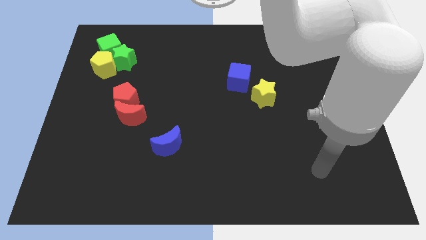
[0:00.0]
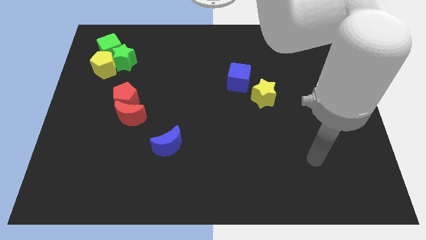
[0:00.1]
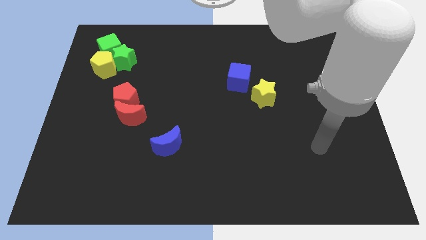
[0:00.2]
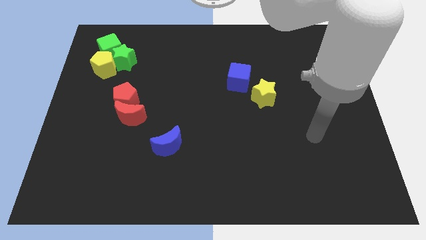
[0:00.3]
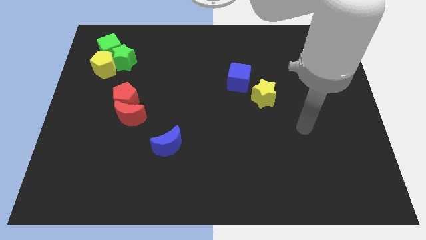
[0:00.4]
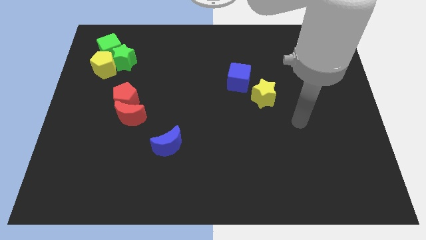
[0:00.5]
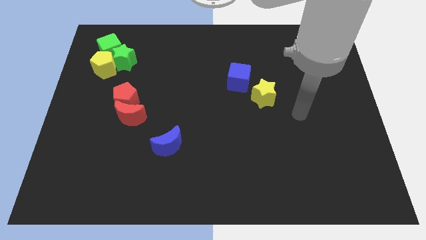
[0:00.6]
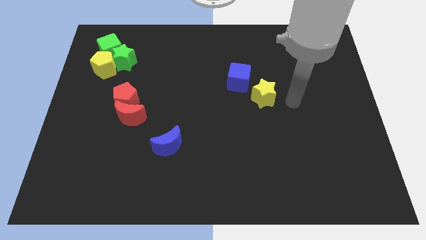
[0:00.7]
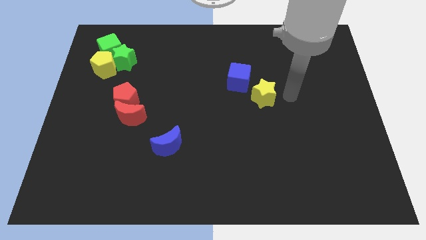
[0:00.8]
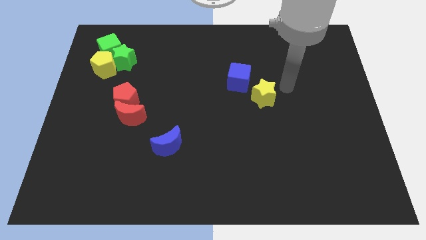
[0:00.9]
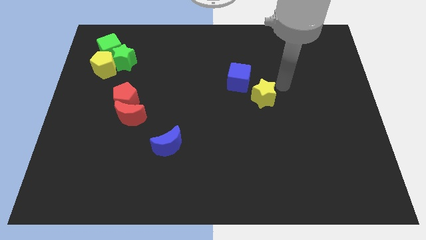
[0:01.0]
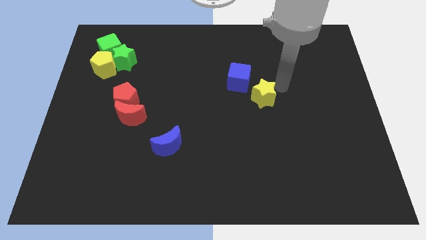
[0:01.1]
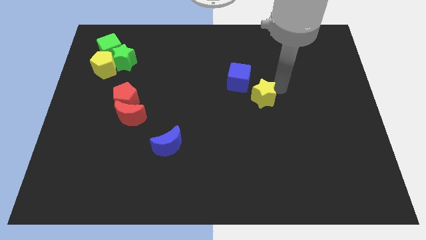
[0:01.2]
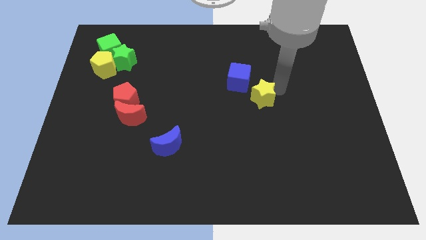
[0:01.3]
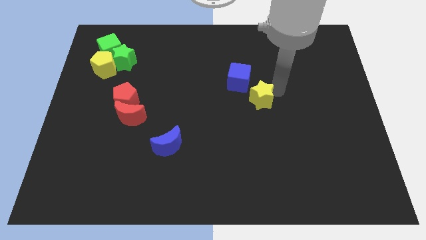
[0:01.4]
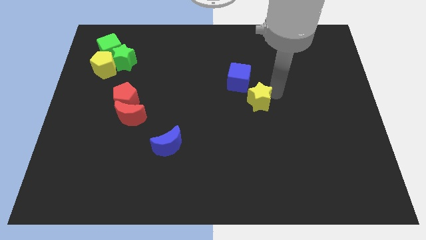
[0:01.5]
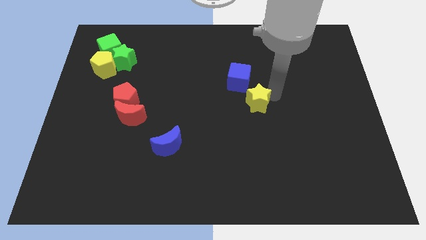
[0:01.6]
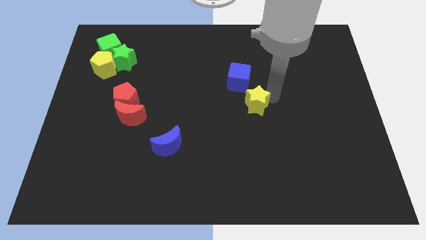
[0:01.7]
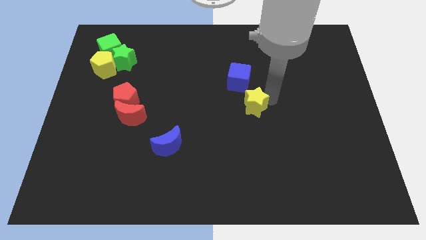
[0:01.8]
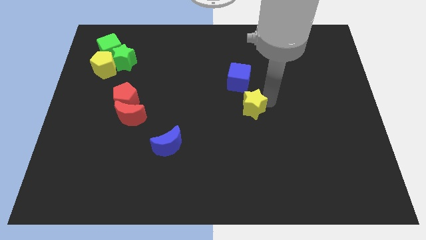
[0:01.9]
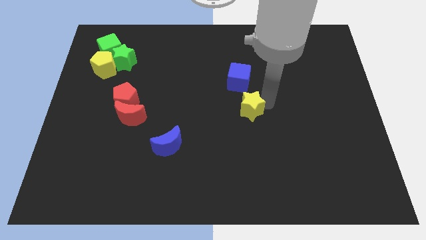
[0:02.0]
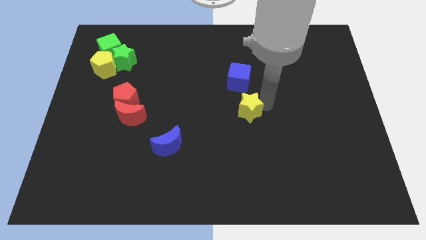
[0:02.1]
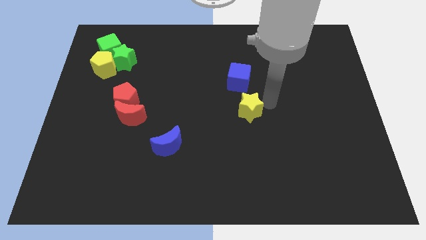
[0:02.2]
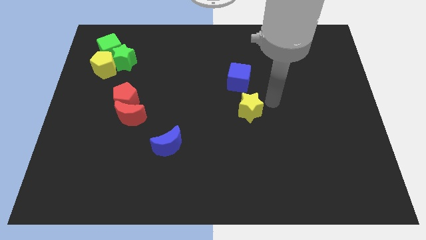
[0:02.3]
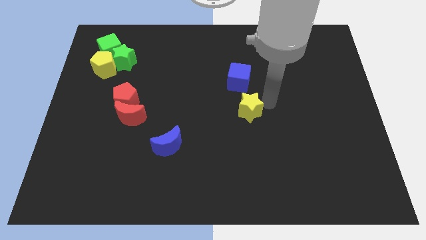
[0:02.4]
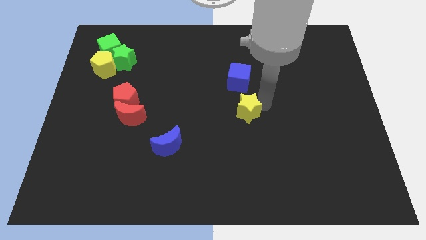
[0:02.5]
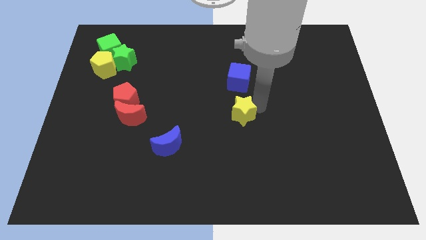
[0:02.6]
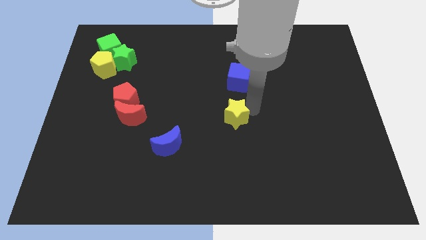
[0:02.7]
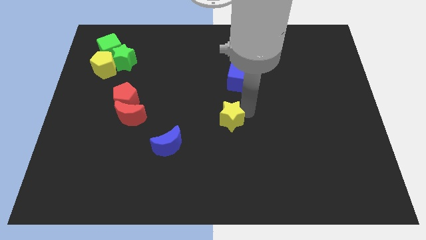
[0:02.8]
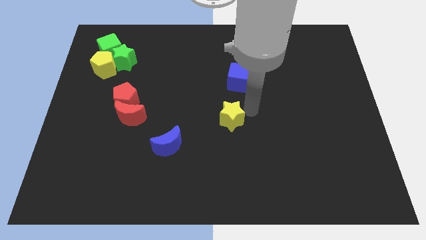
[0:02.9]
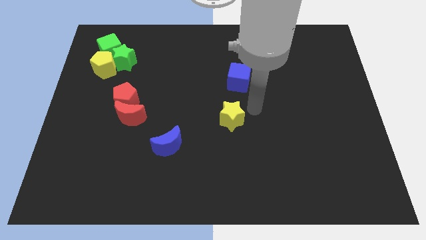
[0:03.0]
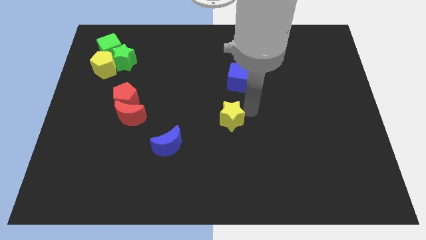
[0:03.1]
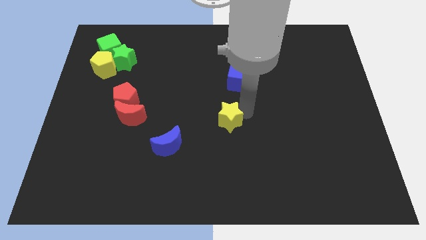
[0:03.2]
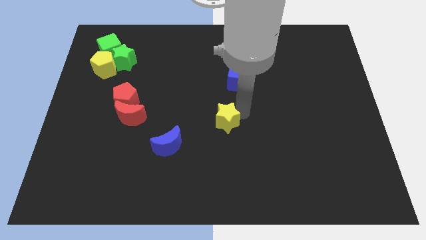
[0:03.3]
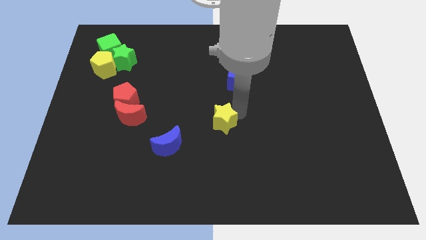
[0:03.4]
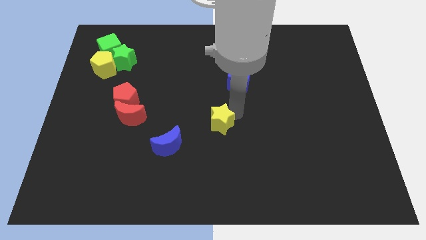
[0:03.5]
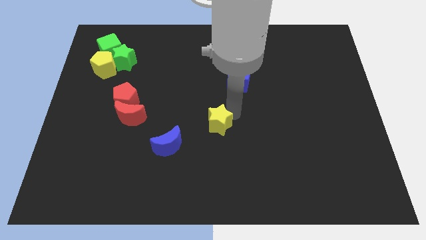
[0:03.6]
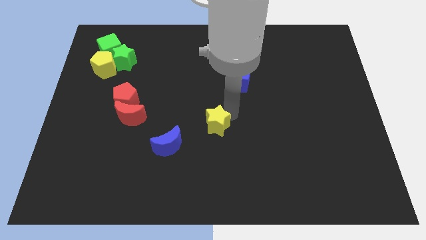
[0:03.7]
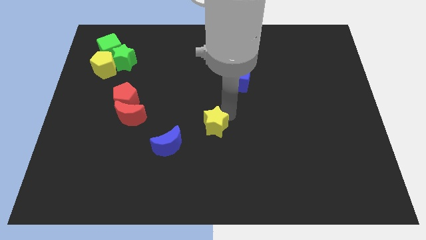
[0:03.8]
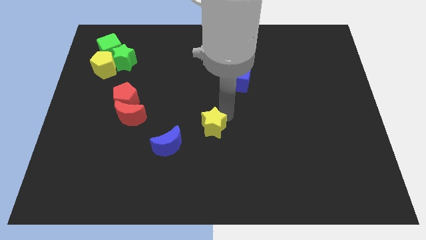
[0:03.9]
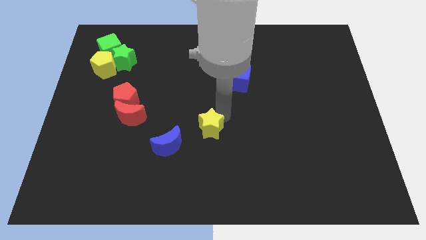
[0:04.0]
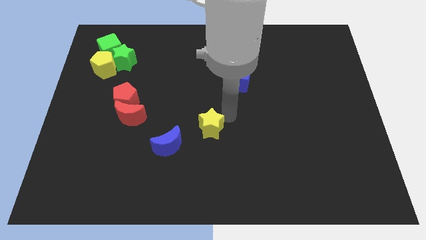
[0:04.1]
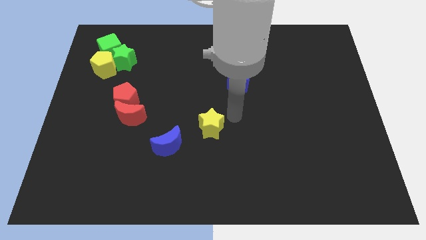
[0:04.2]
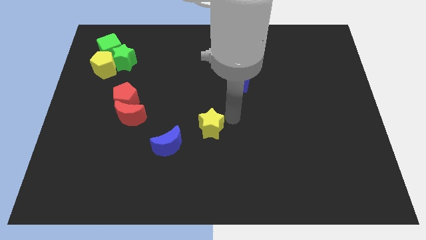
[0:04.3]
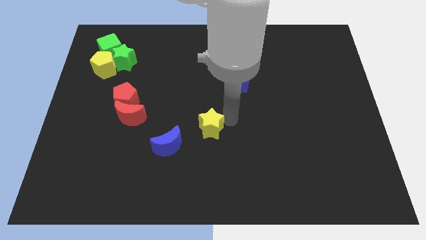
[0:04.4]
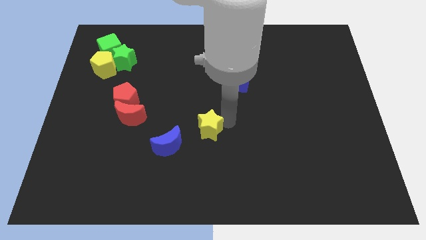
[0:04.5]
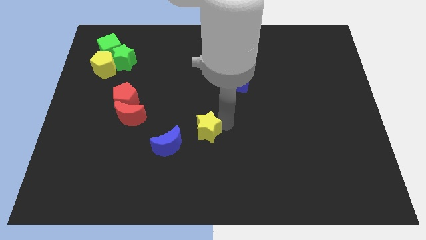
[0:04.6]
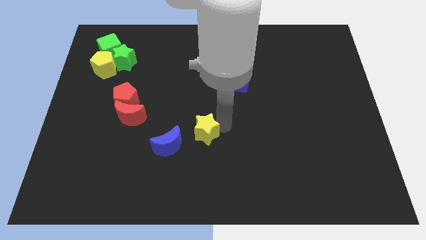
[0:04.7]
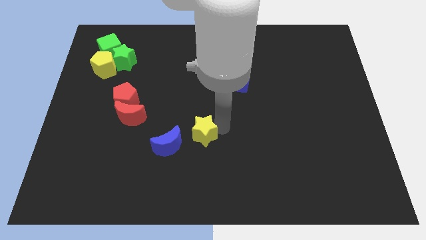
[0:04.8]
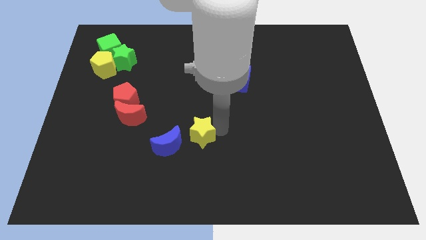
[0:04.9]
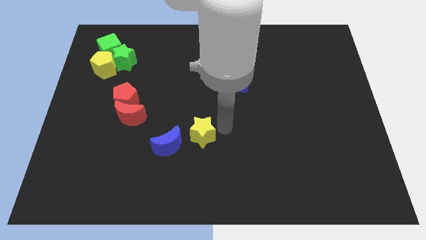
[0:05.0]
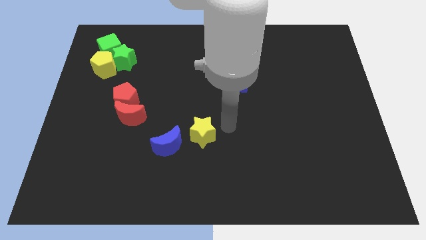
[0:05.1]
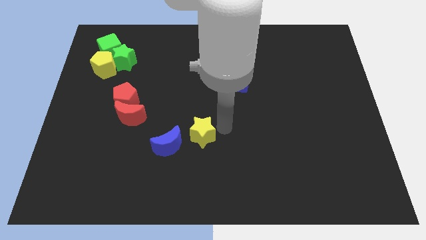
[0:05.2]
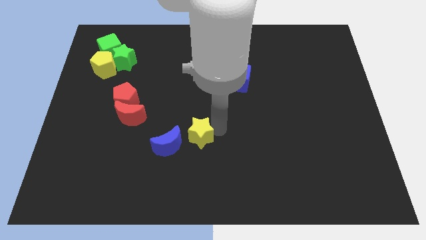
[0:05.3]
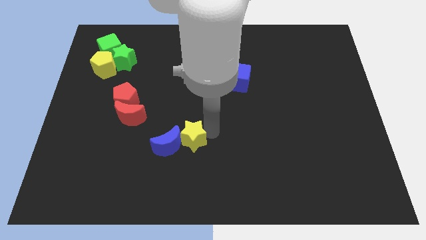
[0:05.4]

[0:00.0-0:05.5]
push the yellow star next to the blue moon
